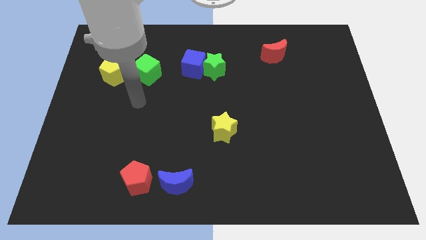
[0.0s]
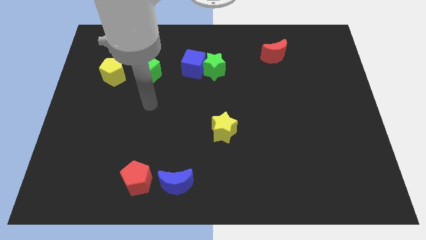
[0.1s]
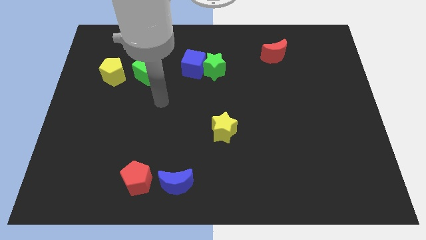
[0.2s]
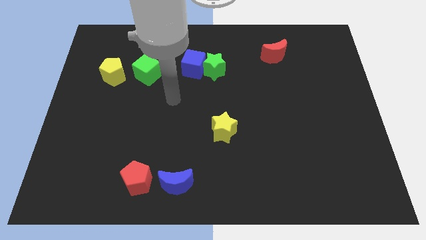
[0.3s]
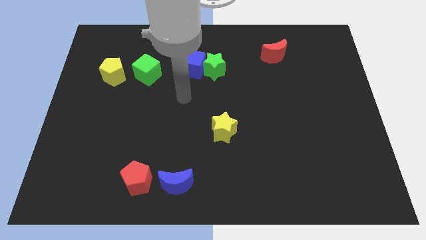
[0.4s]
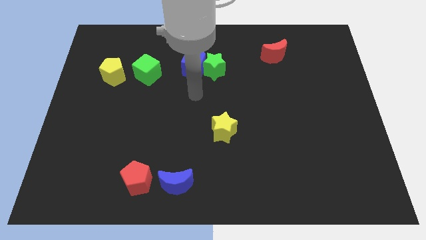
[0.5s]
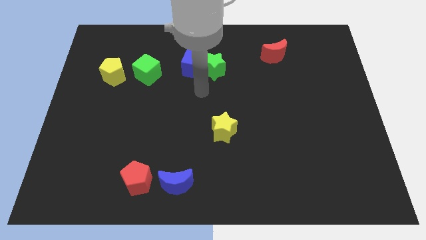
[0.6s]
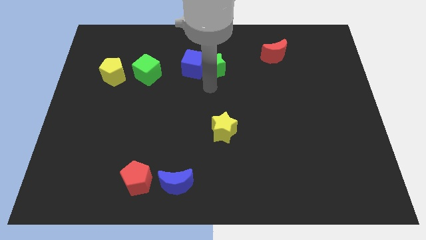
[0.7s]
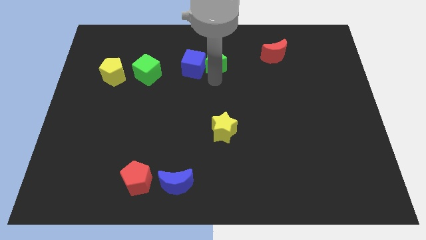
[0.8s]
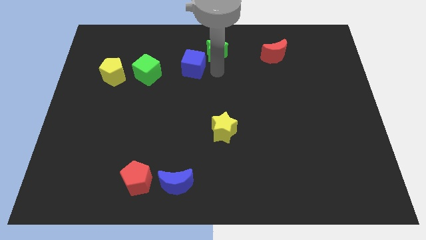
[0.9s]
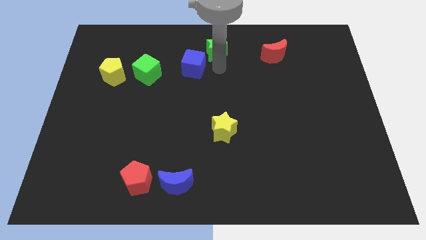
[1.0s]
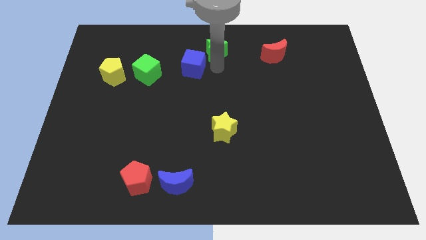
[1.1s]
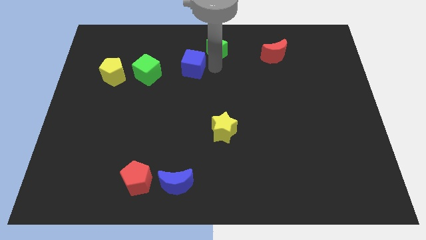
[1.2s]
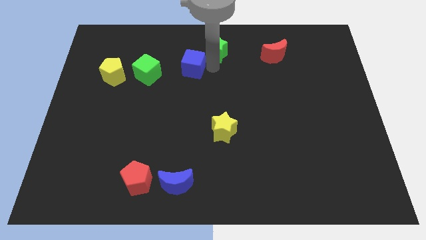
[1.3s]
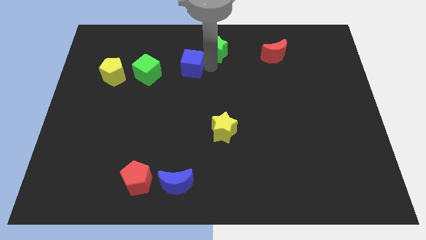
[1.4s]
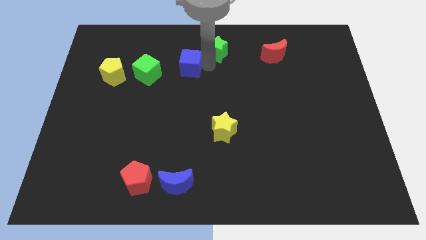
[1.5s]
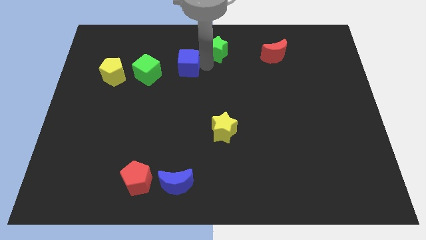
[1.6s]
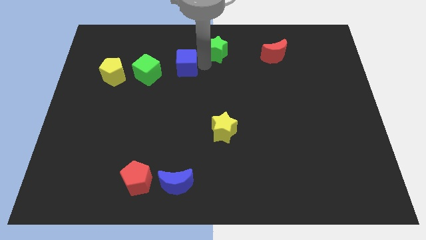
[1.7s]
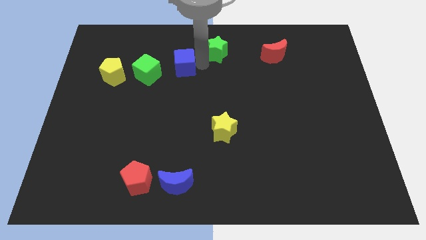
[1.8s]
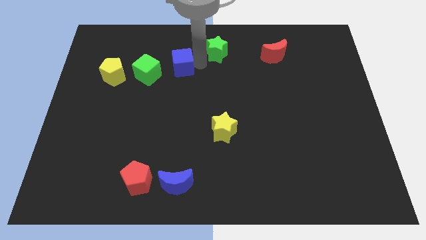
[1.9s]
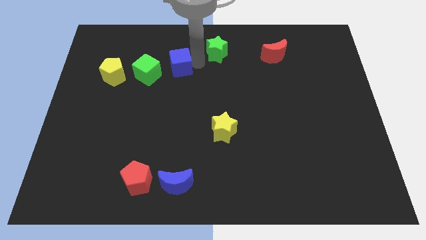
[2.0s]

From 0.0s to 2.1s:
pull the blue cube apart from the green star

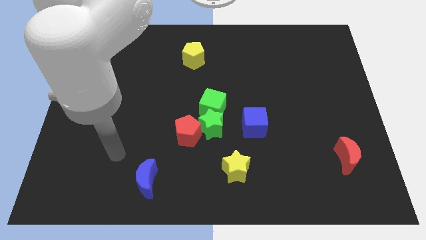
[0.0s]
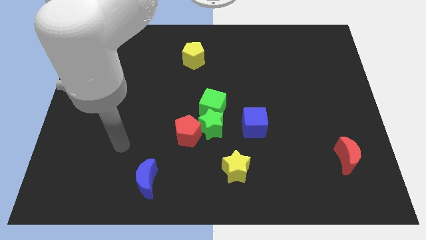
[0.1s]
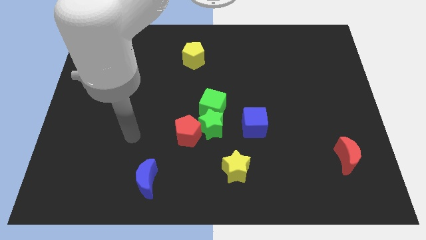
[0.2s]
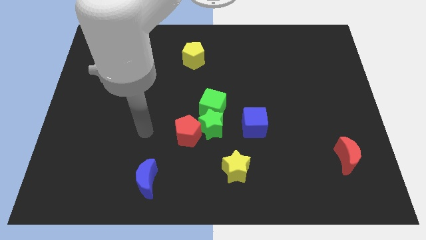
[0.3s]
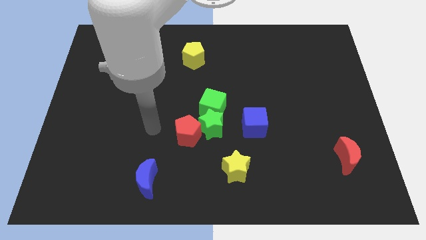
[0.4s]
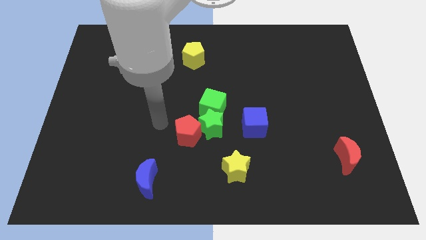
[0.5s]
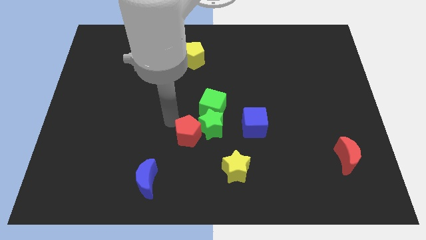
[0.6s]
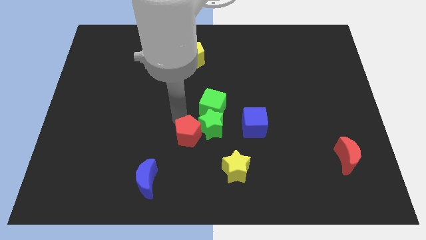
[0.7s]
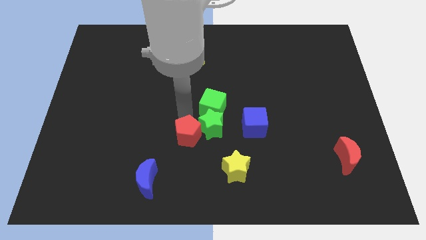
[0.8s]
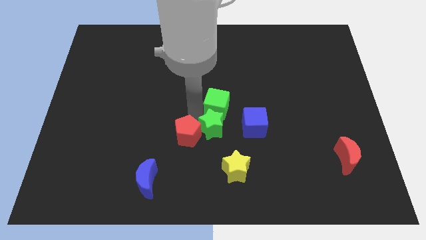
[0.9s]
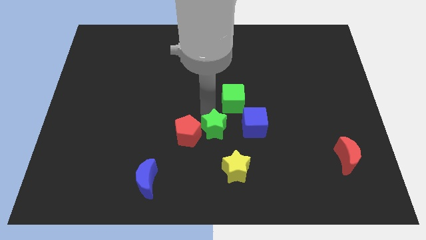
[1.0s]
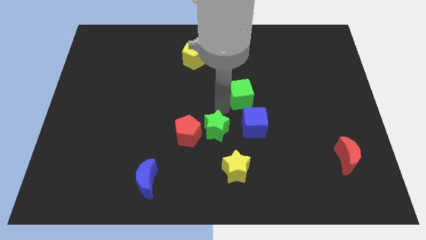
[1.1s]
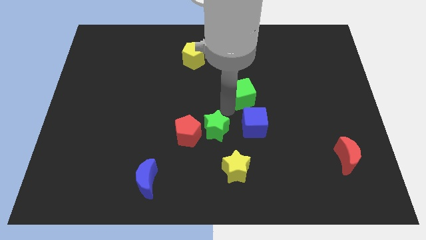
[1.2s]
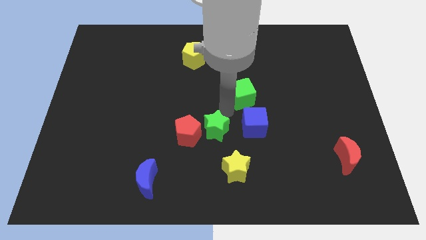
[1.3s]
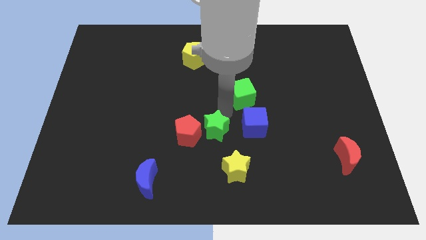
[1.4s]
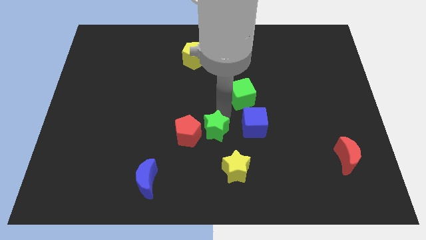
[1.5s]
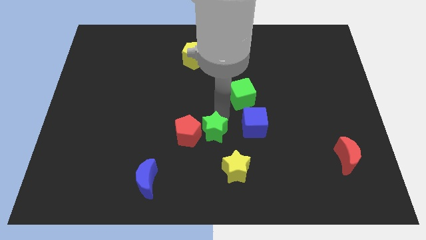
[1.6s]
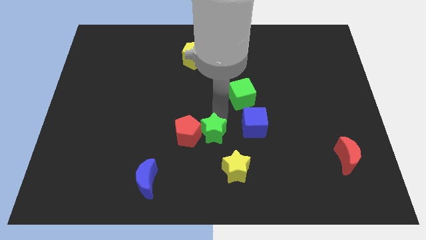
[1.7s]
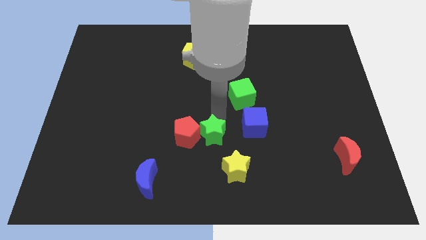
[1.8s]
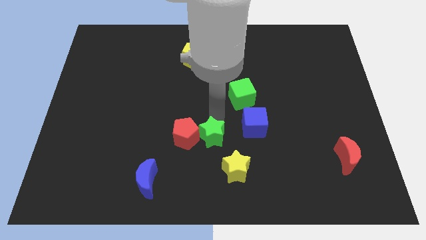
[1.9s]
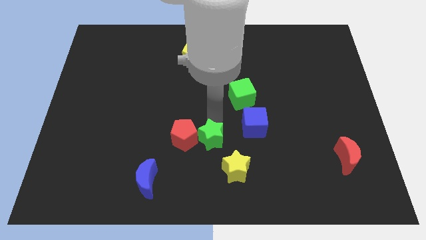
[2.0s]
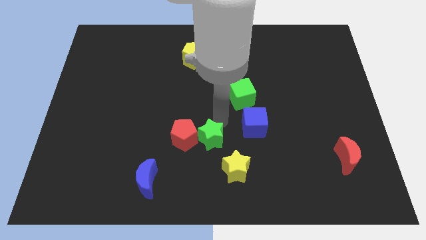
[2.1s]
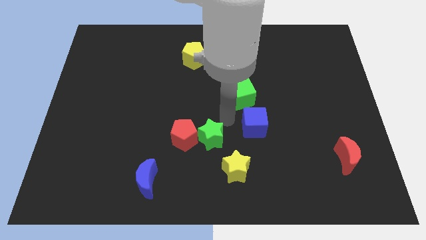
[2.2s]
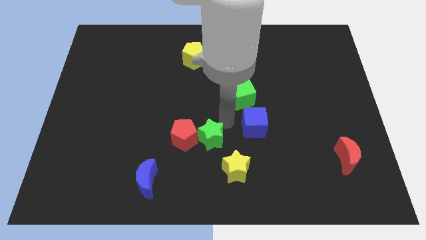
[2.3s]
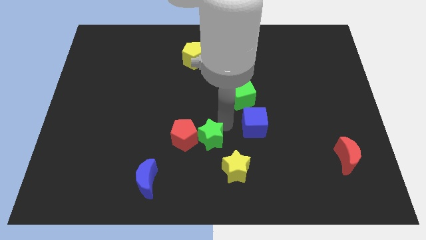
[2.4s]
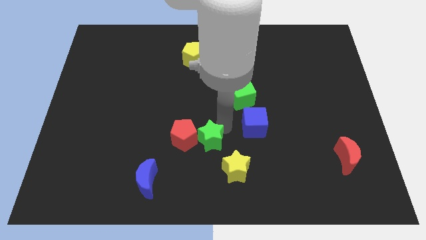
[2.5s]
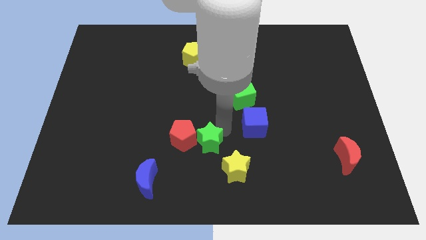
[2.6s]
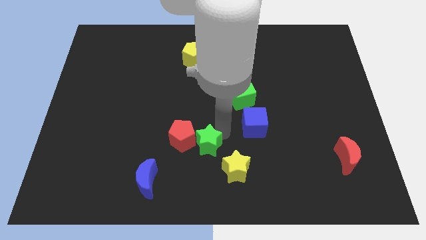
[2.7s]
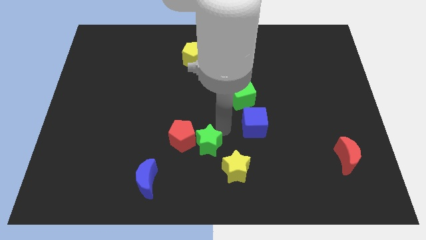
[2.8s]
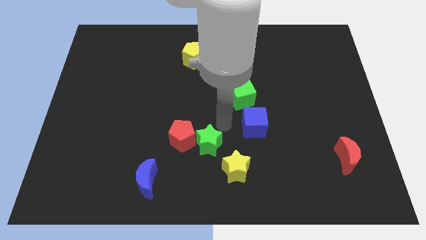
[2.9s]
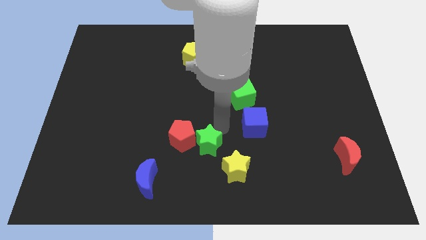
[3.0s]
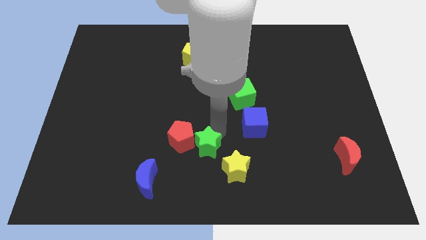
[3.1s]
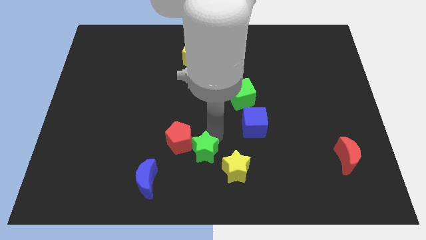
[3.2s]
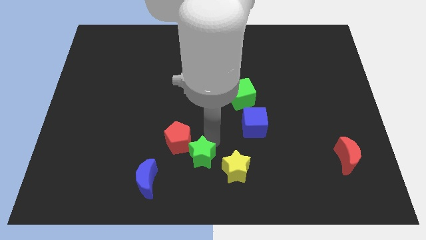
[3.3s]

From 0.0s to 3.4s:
pull the green star apart from the clump

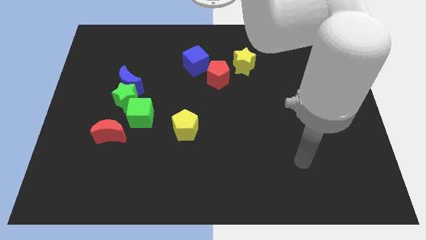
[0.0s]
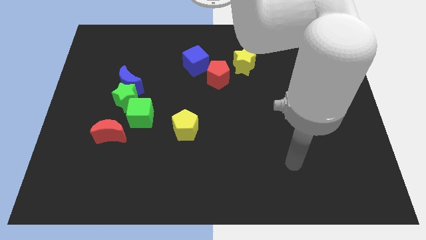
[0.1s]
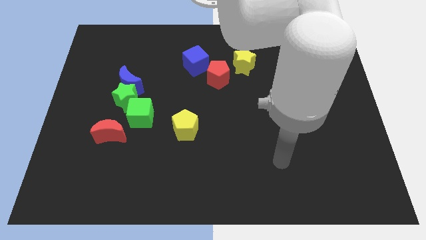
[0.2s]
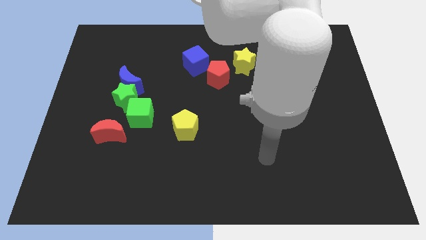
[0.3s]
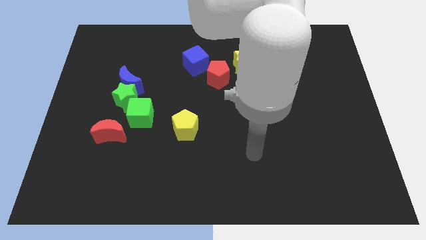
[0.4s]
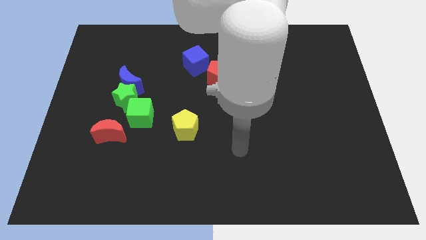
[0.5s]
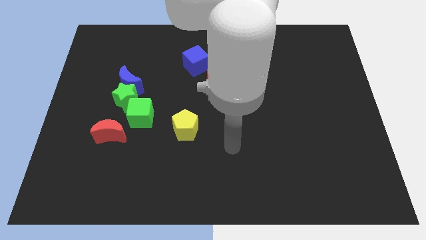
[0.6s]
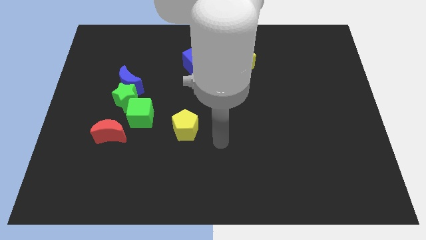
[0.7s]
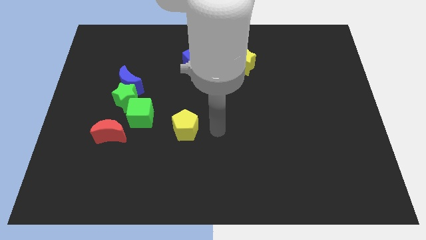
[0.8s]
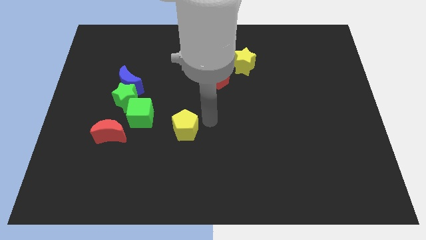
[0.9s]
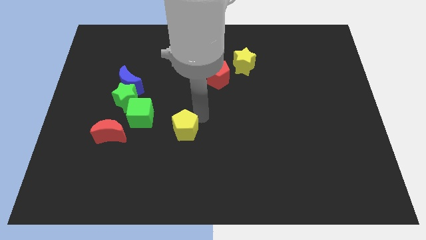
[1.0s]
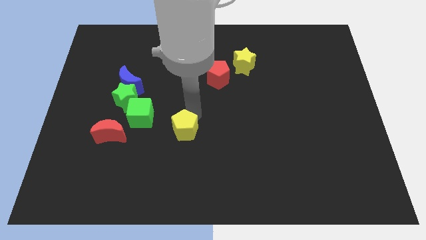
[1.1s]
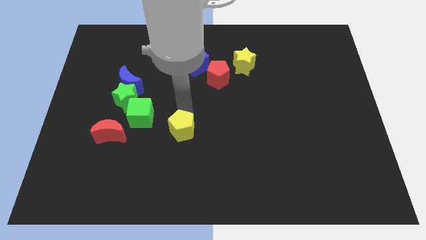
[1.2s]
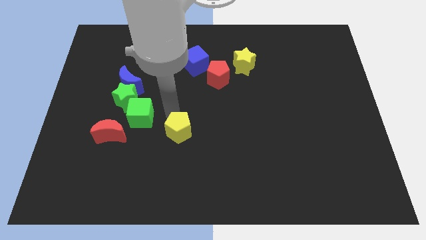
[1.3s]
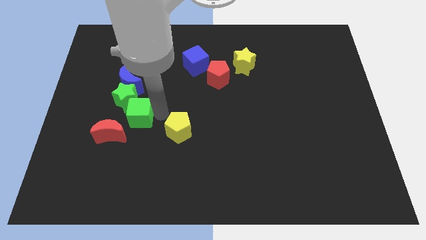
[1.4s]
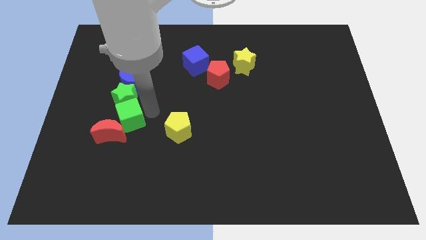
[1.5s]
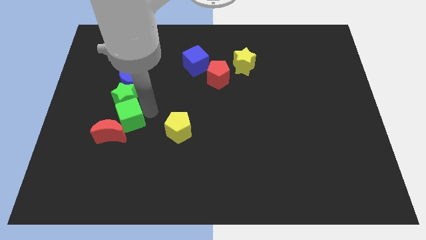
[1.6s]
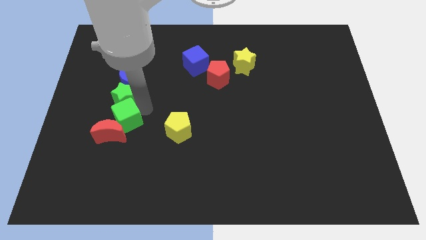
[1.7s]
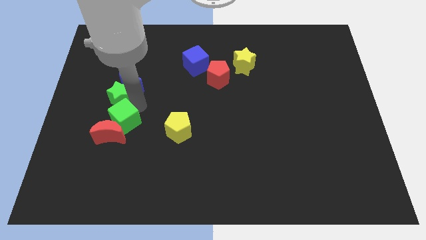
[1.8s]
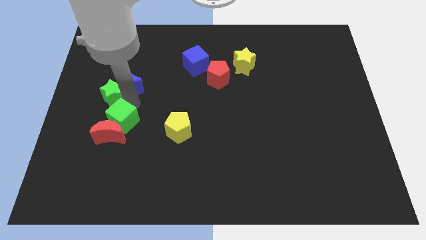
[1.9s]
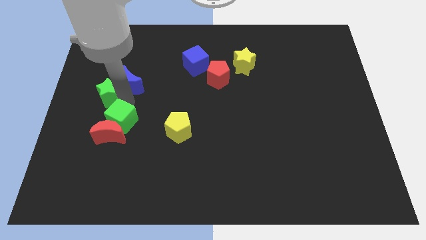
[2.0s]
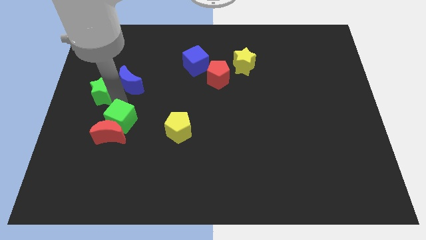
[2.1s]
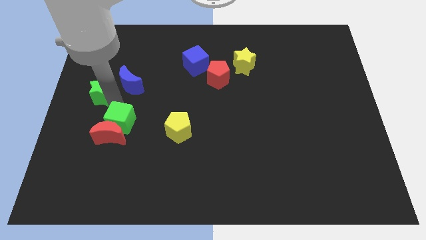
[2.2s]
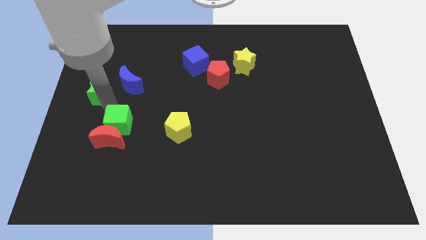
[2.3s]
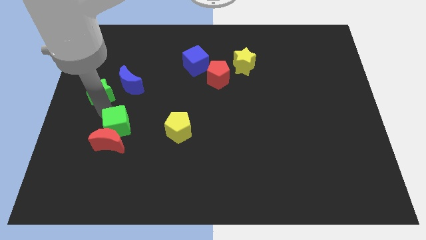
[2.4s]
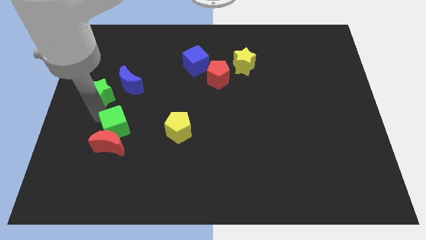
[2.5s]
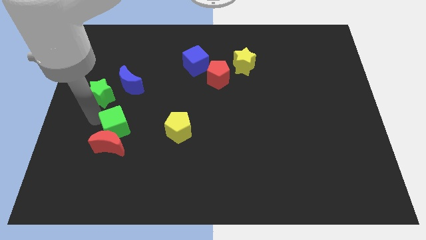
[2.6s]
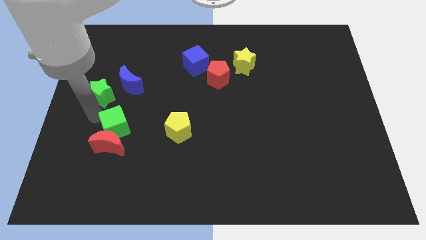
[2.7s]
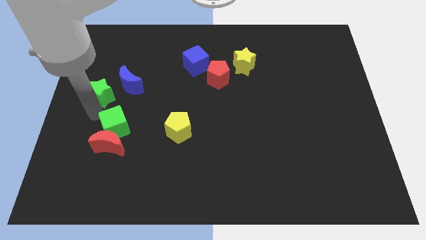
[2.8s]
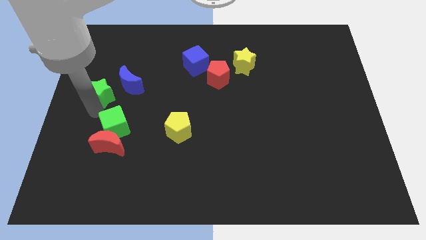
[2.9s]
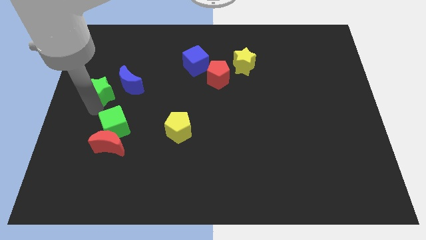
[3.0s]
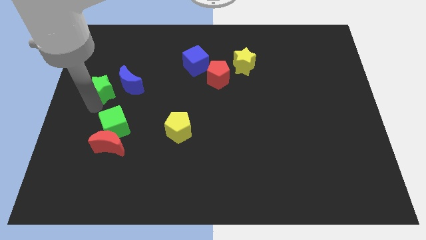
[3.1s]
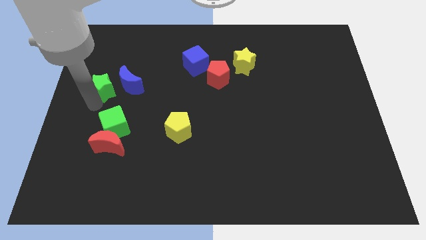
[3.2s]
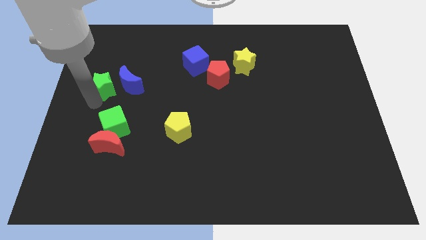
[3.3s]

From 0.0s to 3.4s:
pull the green star apart from the blue moon, green cube, and red moon

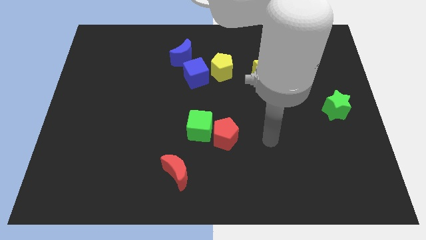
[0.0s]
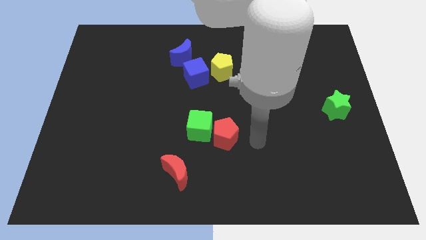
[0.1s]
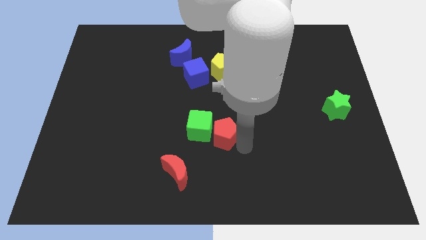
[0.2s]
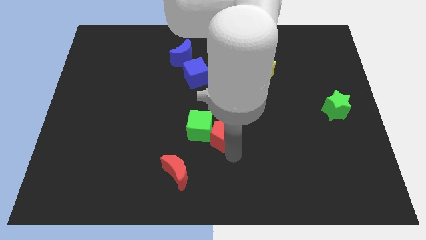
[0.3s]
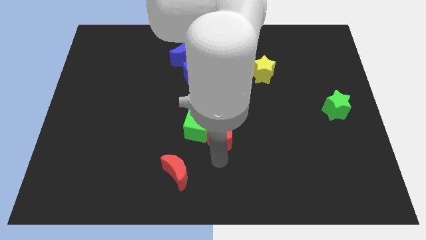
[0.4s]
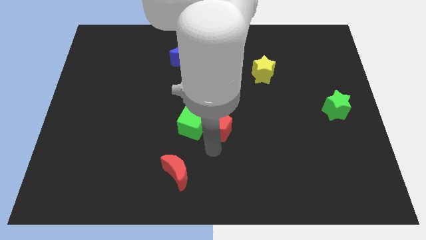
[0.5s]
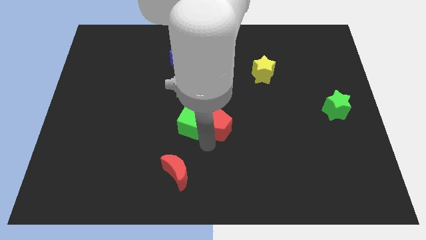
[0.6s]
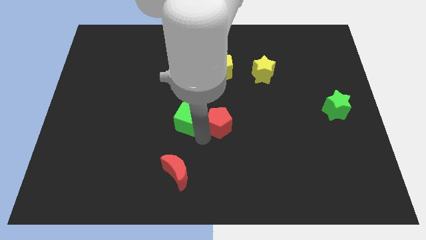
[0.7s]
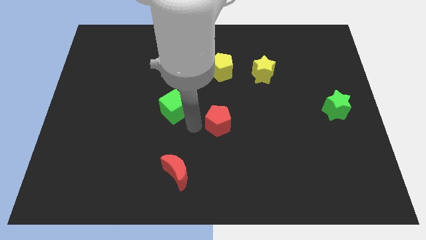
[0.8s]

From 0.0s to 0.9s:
move the red pentagon away from the green cube
